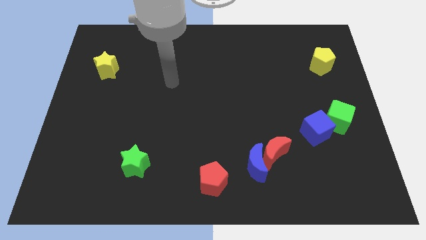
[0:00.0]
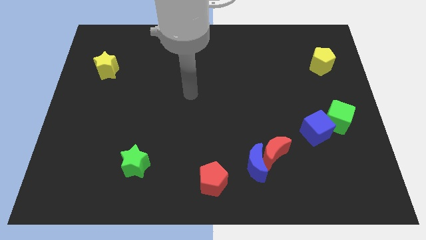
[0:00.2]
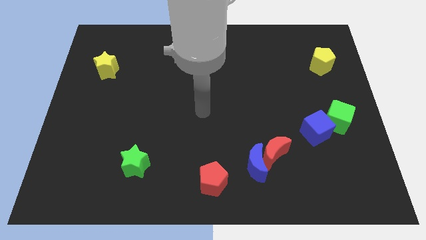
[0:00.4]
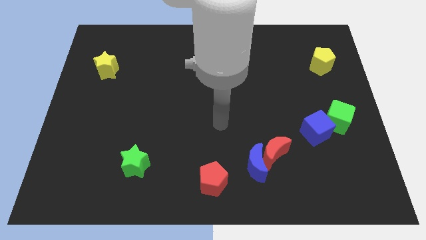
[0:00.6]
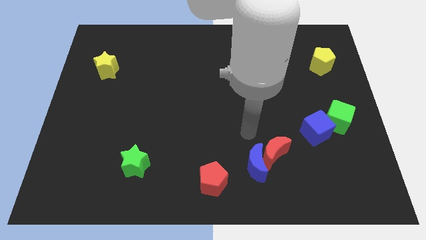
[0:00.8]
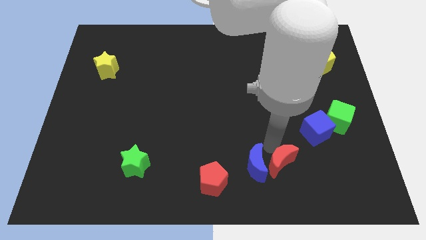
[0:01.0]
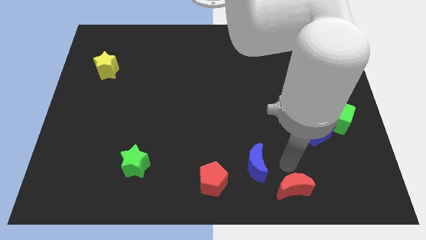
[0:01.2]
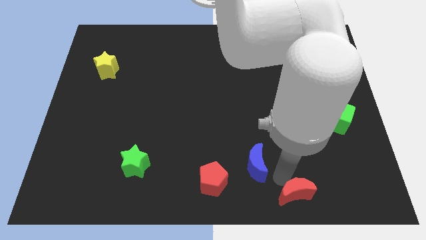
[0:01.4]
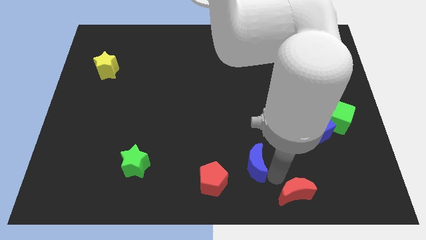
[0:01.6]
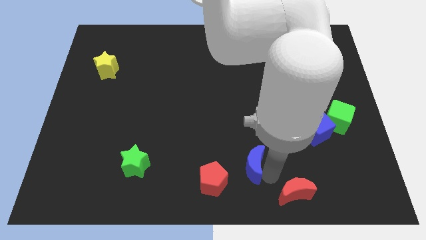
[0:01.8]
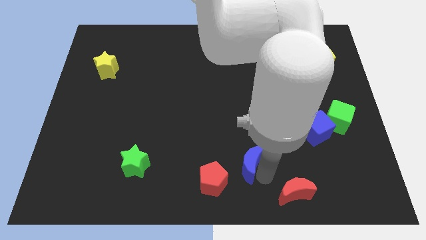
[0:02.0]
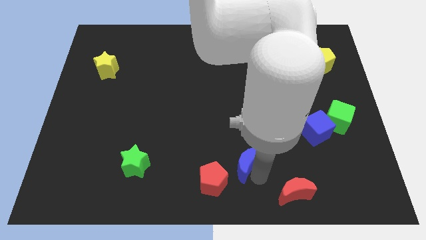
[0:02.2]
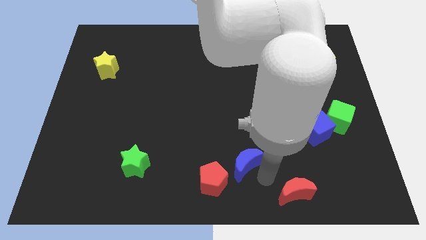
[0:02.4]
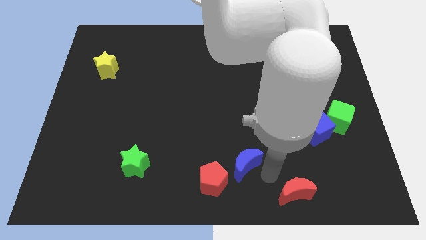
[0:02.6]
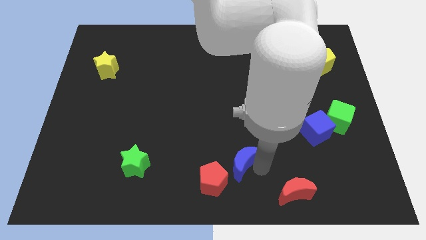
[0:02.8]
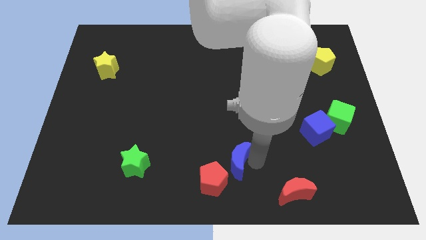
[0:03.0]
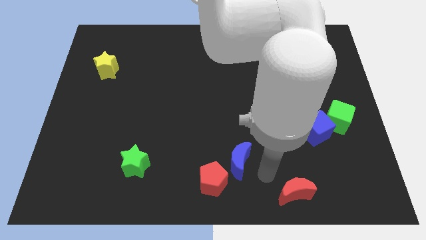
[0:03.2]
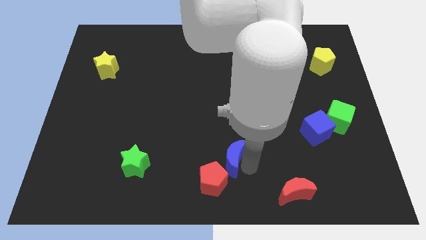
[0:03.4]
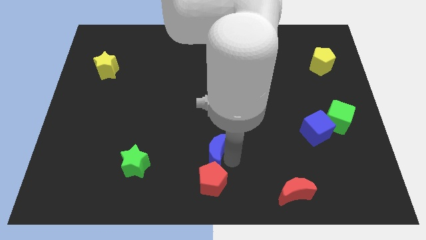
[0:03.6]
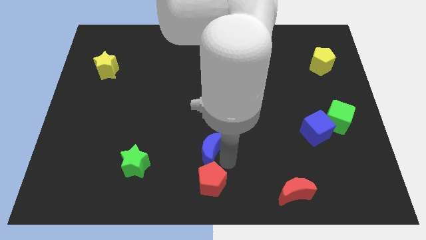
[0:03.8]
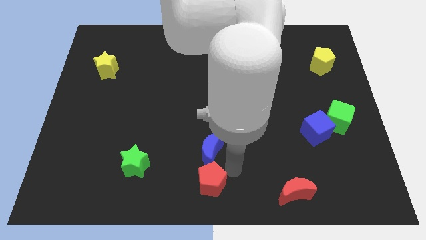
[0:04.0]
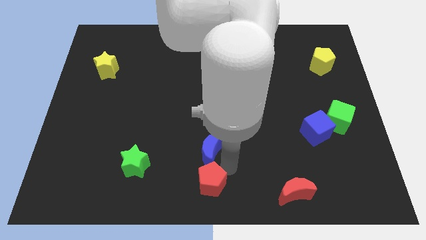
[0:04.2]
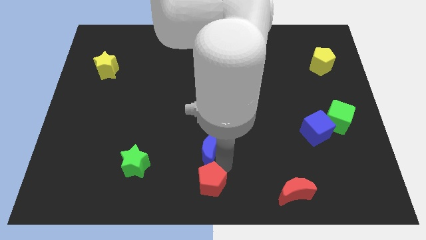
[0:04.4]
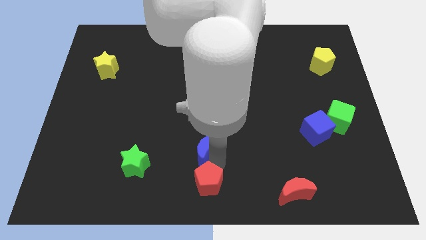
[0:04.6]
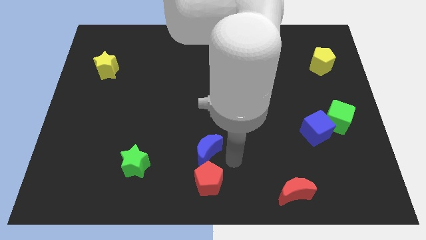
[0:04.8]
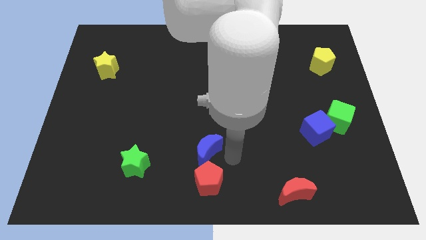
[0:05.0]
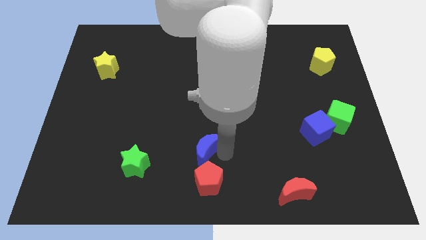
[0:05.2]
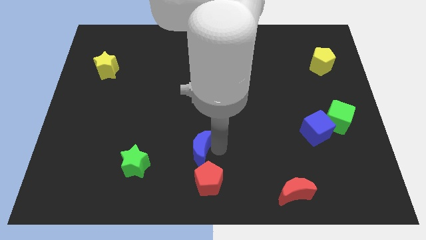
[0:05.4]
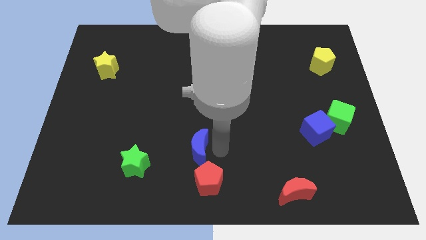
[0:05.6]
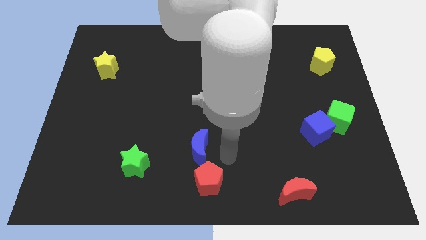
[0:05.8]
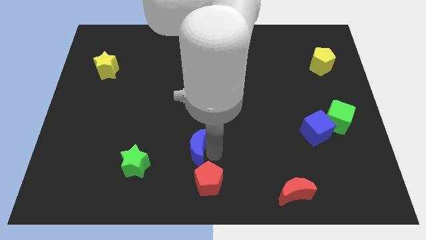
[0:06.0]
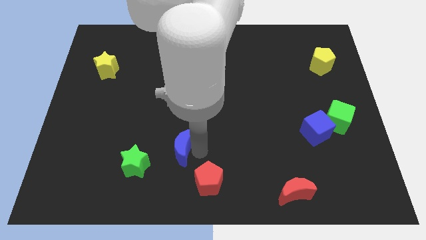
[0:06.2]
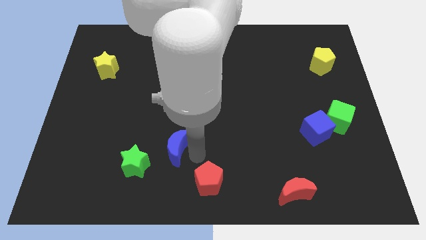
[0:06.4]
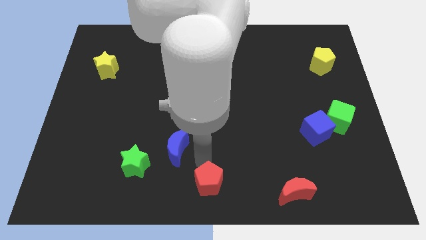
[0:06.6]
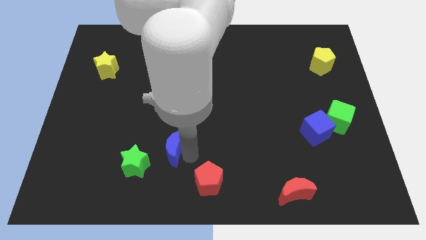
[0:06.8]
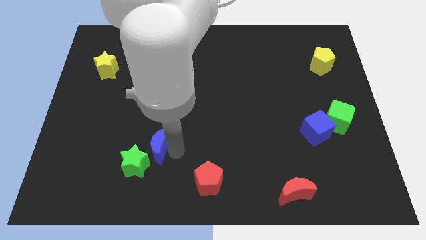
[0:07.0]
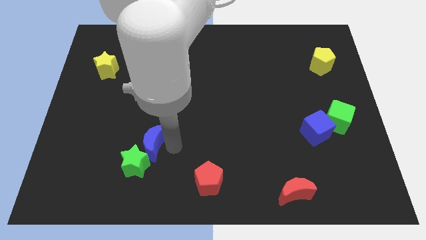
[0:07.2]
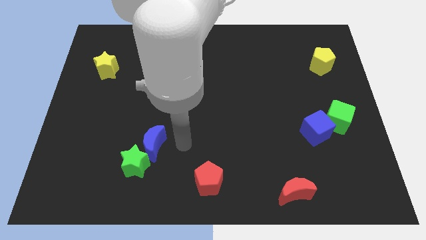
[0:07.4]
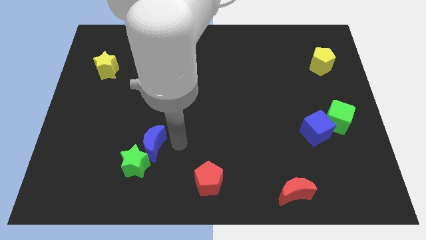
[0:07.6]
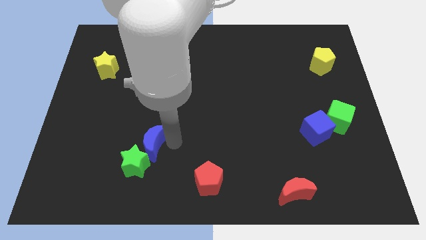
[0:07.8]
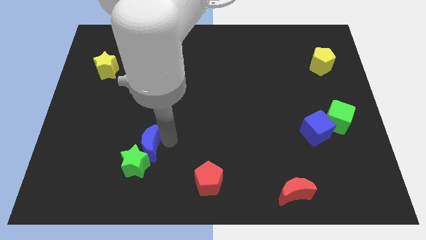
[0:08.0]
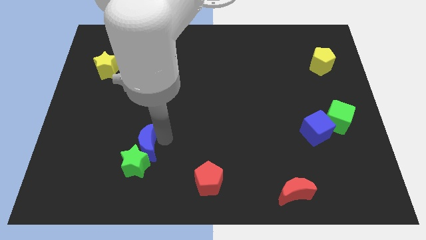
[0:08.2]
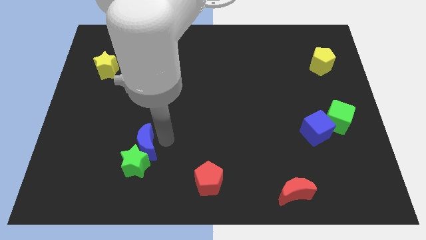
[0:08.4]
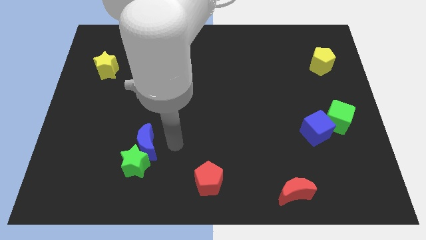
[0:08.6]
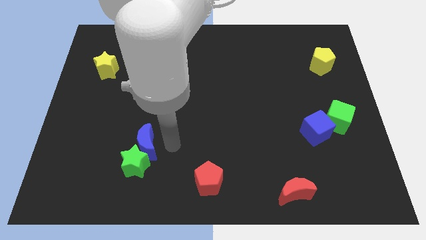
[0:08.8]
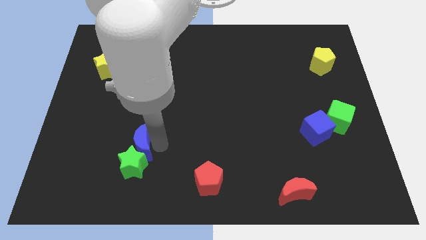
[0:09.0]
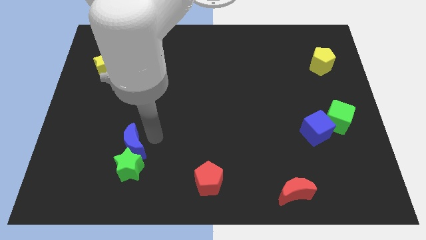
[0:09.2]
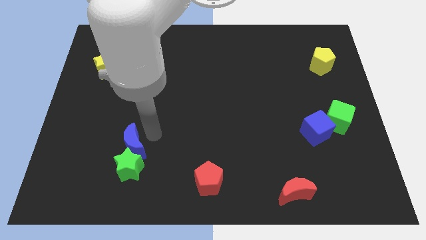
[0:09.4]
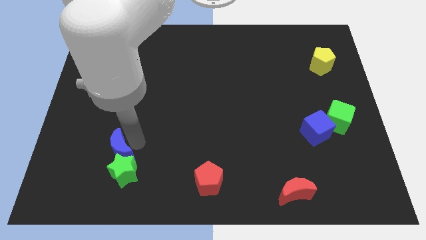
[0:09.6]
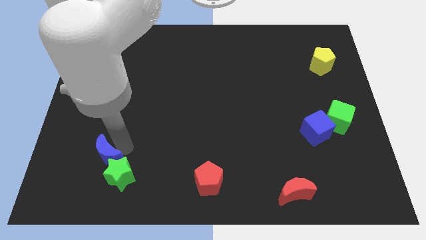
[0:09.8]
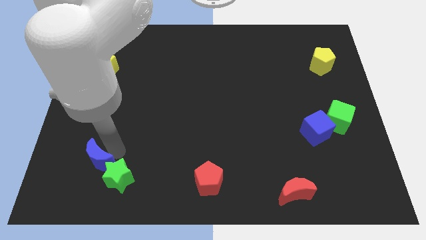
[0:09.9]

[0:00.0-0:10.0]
move the blue moon to the left of the green star

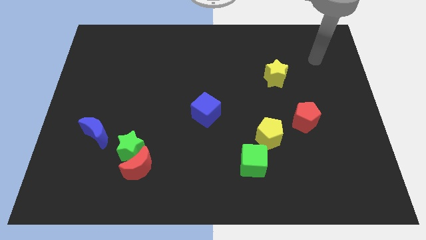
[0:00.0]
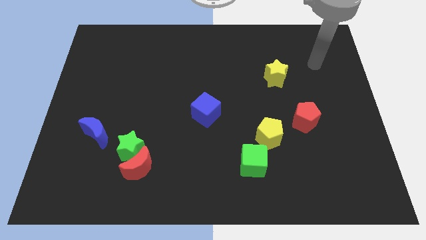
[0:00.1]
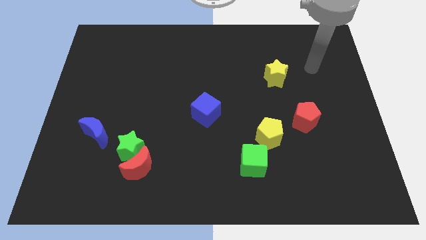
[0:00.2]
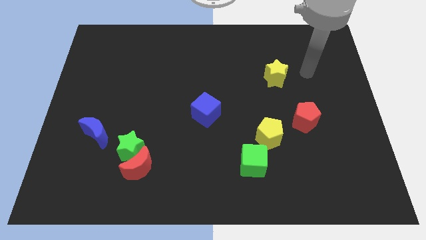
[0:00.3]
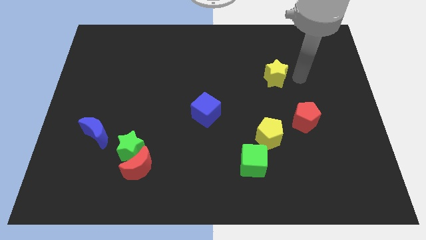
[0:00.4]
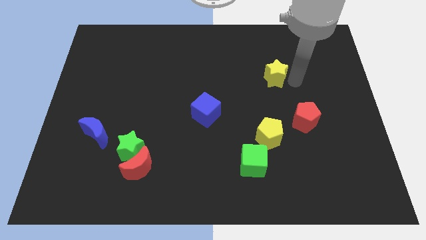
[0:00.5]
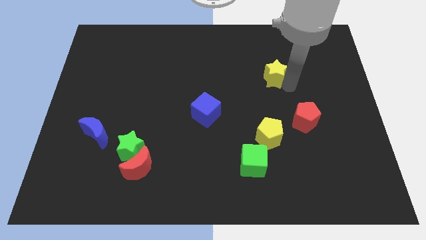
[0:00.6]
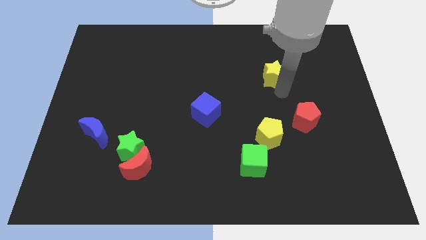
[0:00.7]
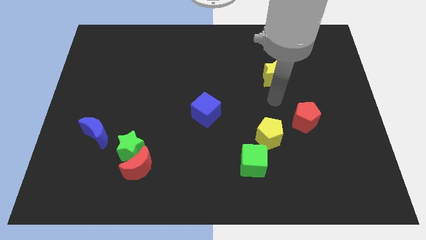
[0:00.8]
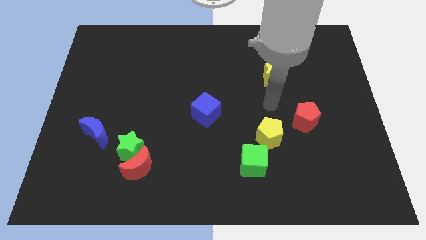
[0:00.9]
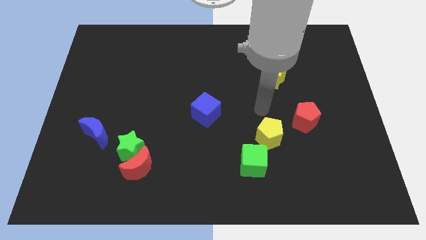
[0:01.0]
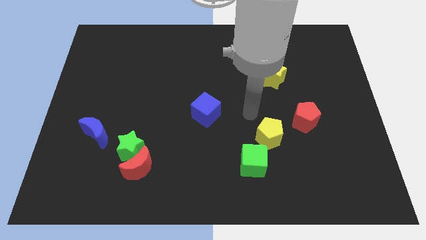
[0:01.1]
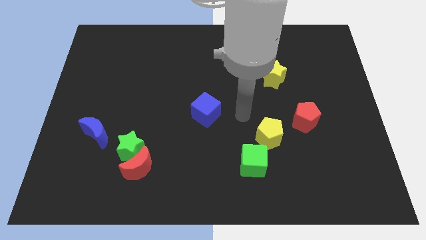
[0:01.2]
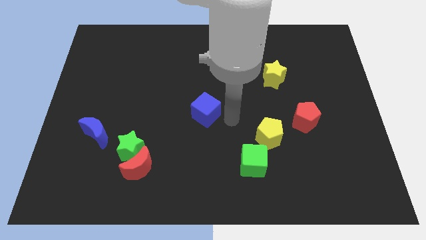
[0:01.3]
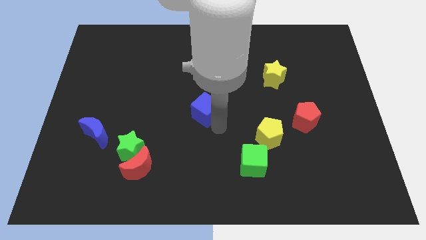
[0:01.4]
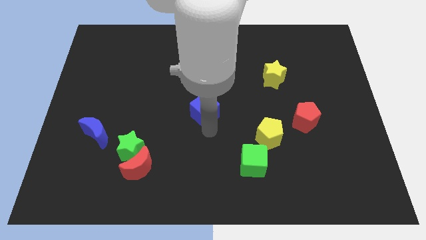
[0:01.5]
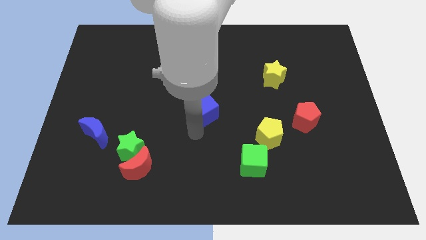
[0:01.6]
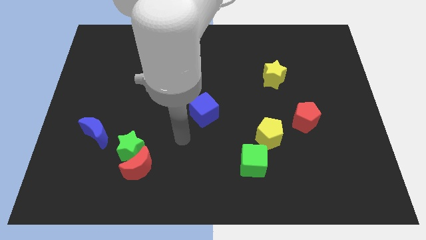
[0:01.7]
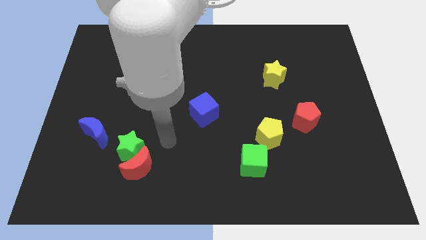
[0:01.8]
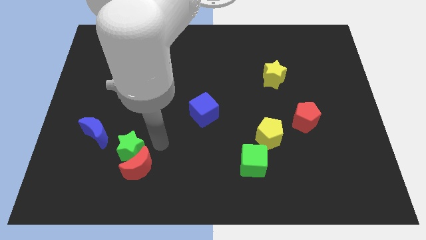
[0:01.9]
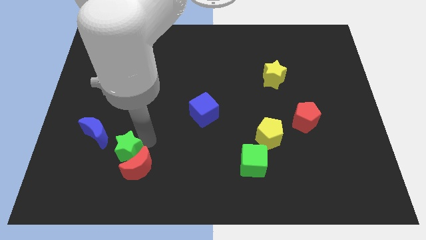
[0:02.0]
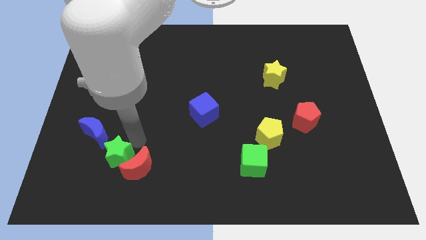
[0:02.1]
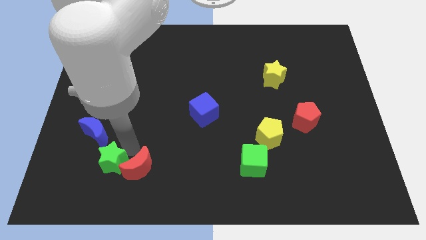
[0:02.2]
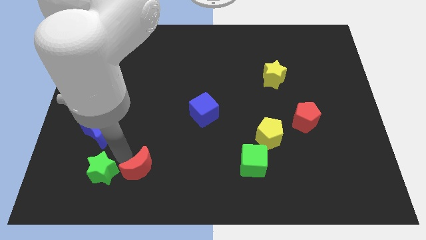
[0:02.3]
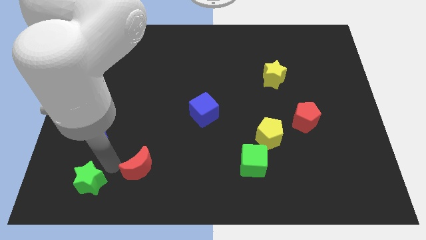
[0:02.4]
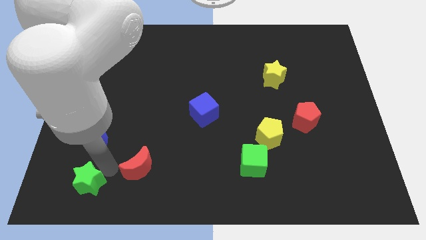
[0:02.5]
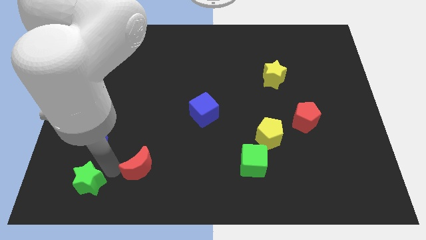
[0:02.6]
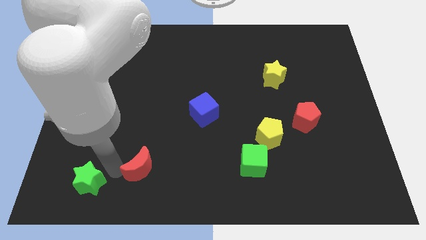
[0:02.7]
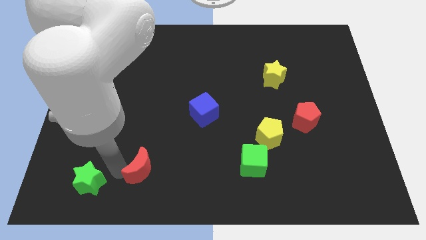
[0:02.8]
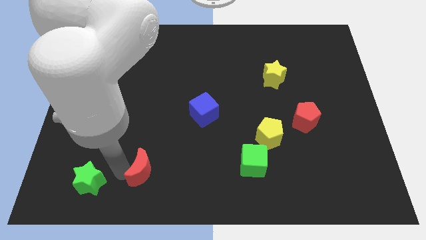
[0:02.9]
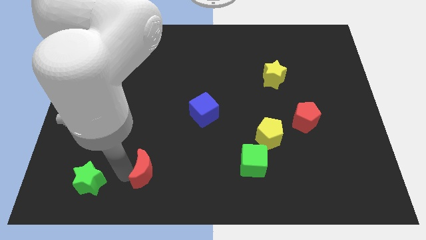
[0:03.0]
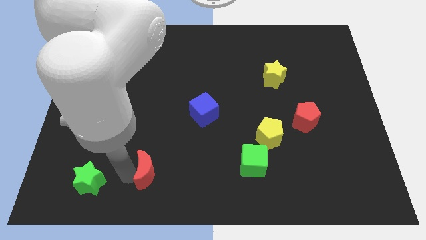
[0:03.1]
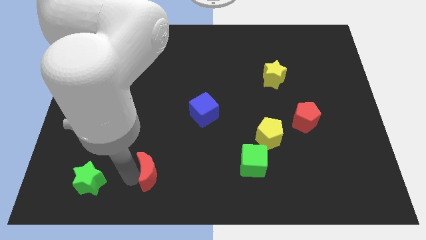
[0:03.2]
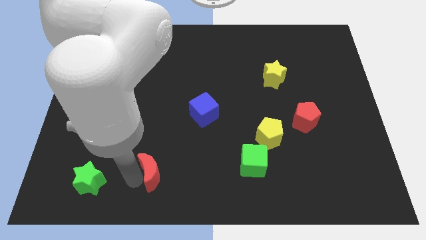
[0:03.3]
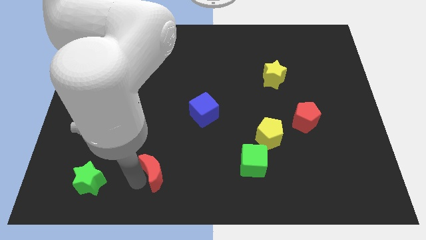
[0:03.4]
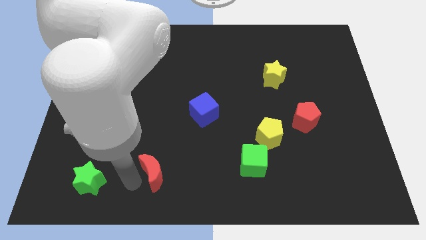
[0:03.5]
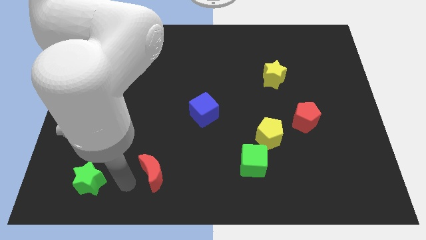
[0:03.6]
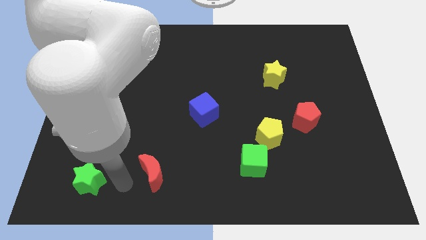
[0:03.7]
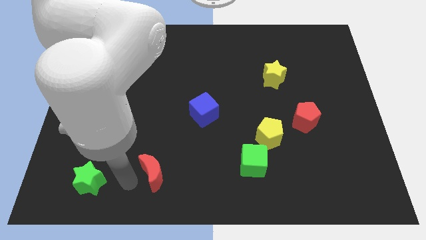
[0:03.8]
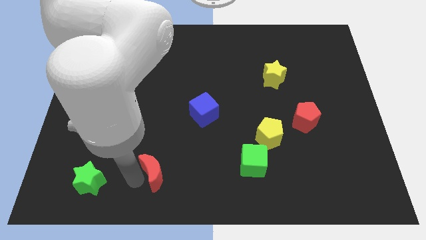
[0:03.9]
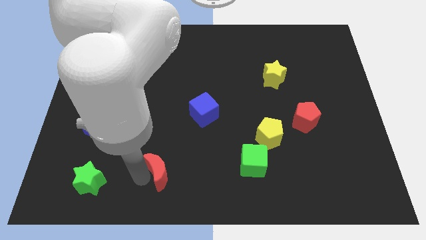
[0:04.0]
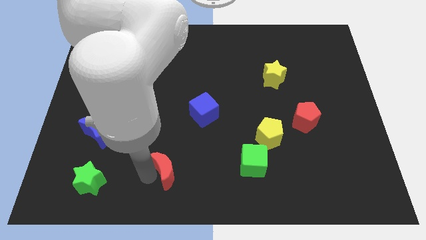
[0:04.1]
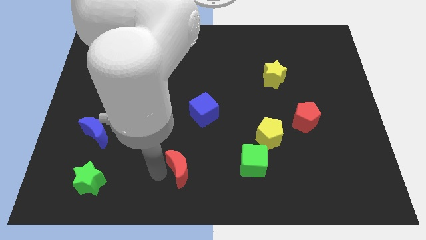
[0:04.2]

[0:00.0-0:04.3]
slide the red moon left of the green cube
